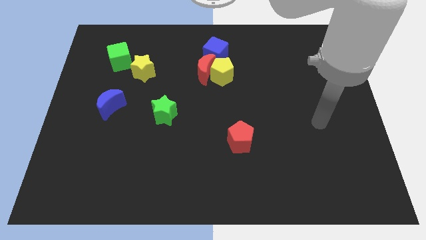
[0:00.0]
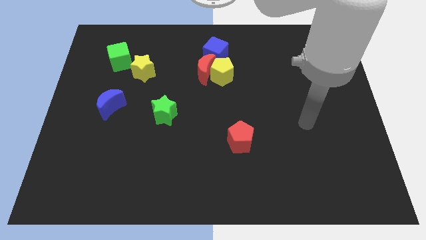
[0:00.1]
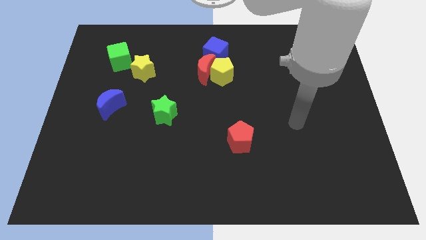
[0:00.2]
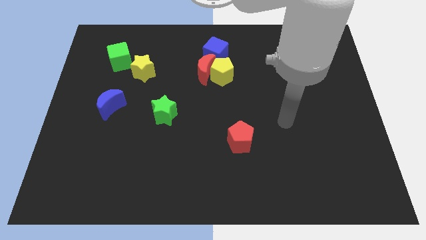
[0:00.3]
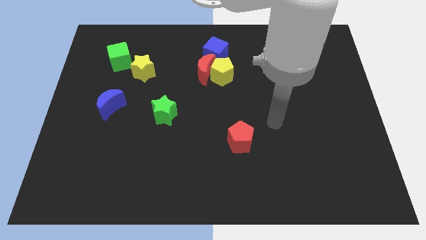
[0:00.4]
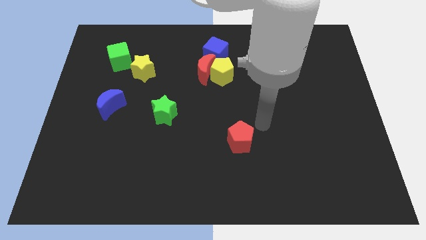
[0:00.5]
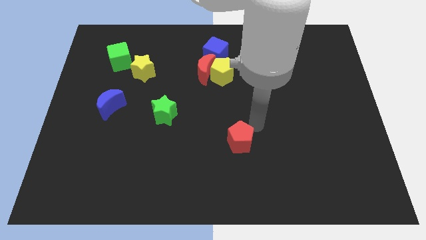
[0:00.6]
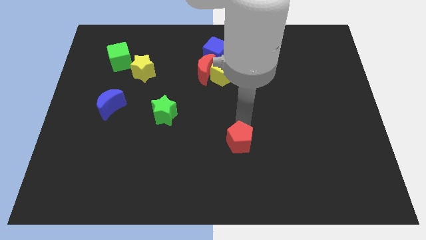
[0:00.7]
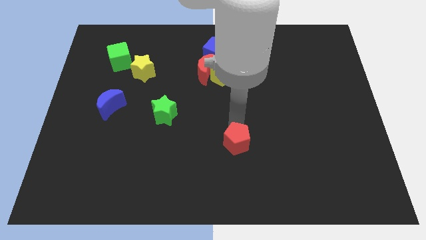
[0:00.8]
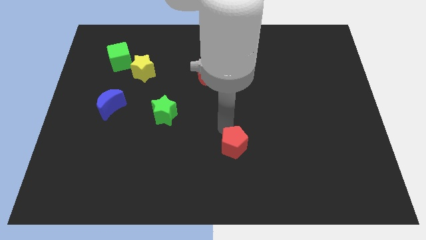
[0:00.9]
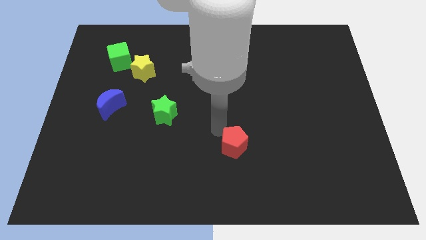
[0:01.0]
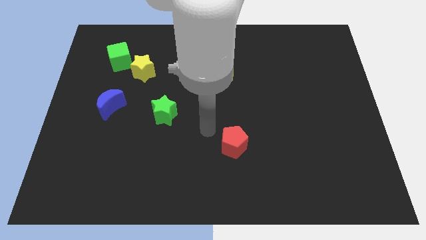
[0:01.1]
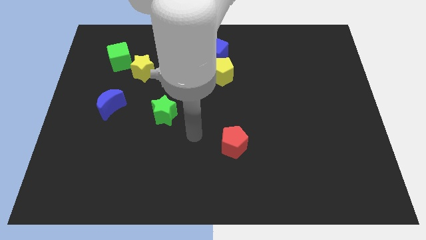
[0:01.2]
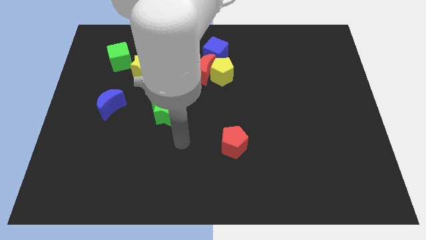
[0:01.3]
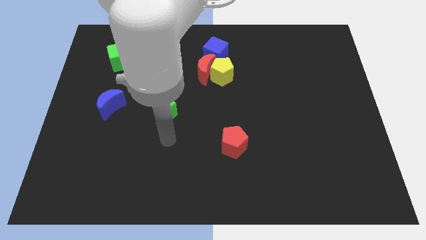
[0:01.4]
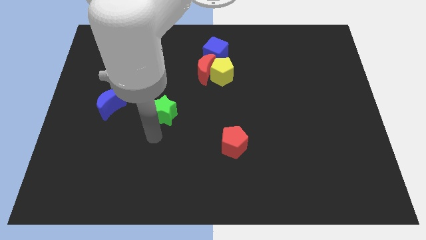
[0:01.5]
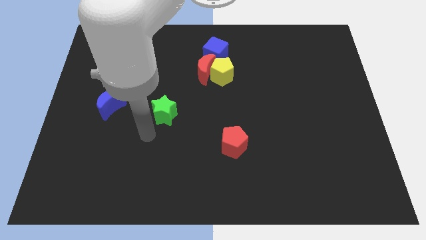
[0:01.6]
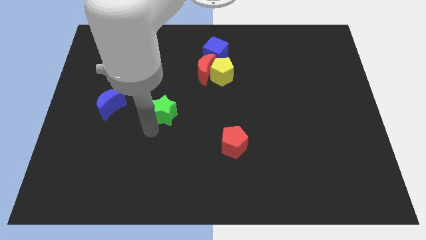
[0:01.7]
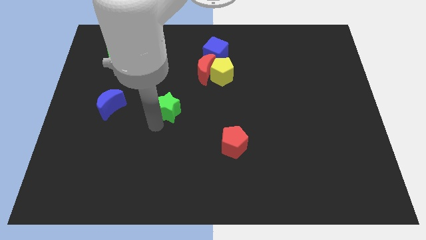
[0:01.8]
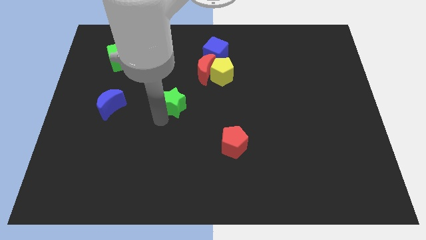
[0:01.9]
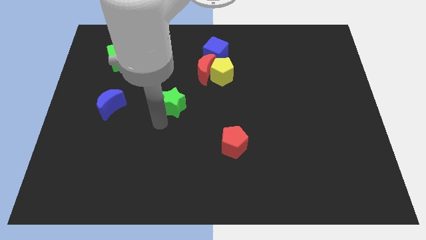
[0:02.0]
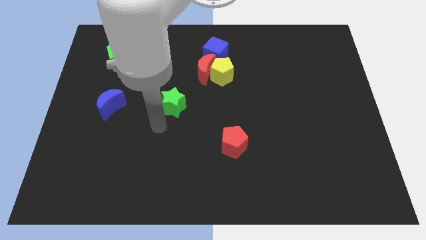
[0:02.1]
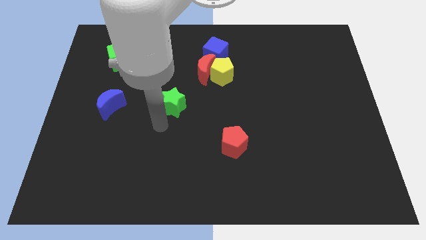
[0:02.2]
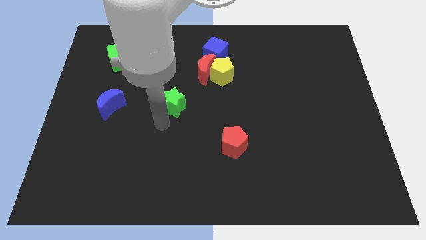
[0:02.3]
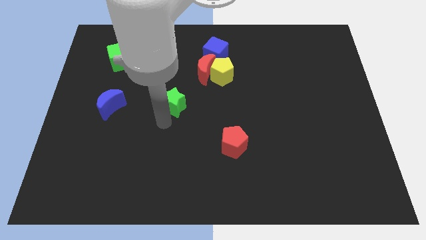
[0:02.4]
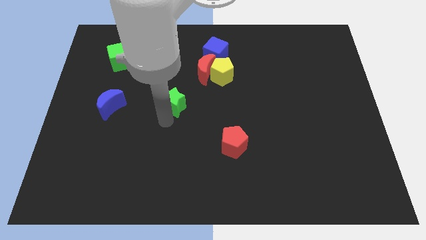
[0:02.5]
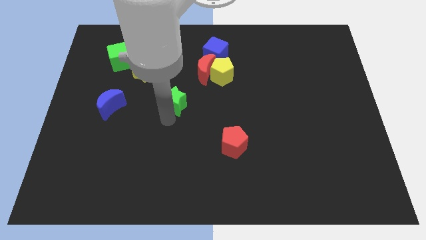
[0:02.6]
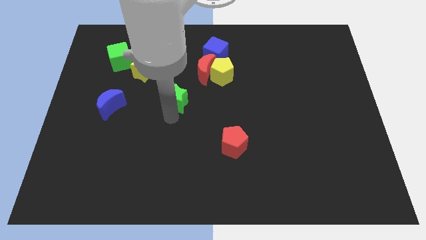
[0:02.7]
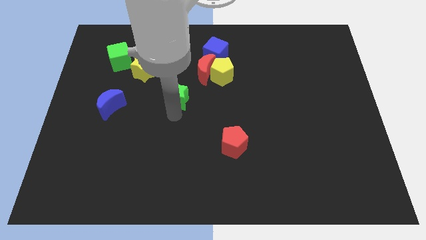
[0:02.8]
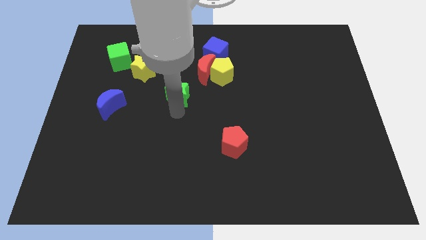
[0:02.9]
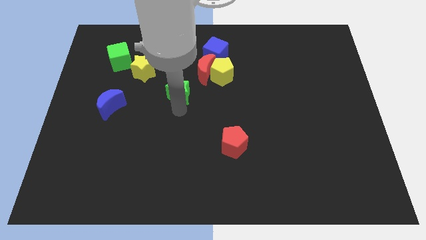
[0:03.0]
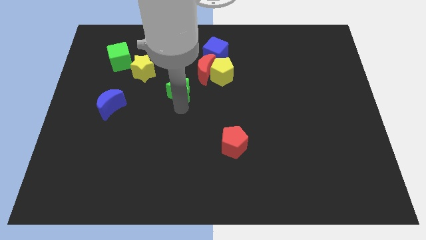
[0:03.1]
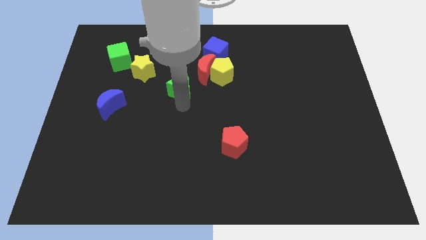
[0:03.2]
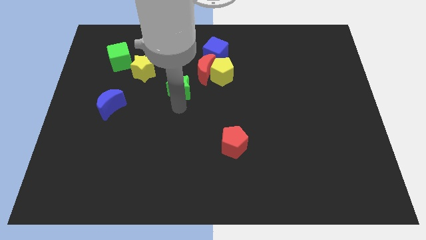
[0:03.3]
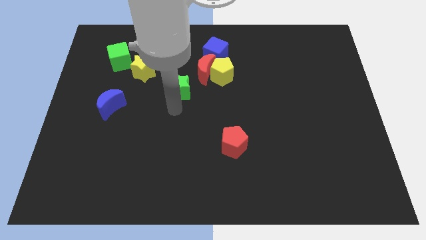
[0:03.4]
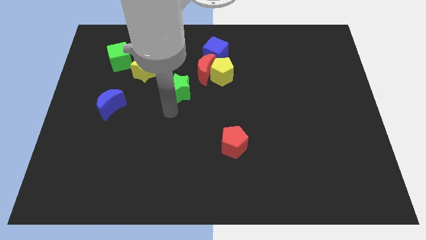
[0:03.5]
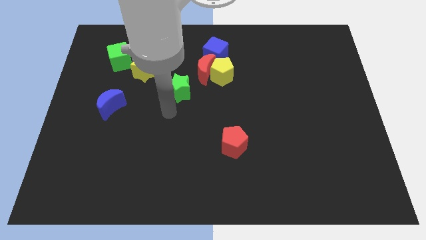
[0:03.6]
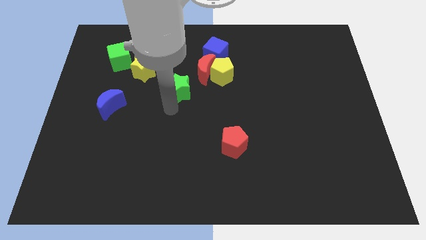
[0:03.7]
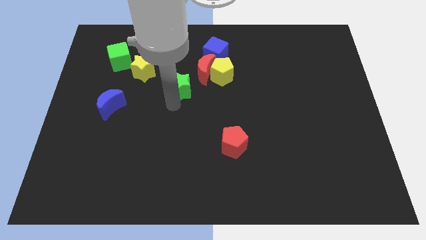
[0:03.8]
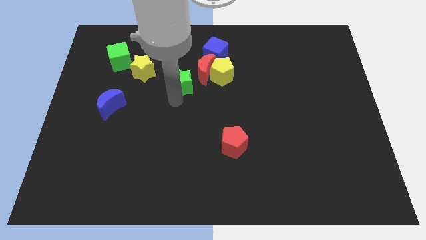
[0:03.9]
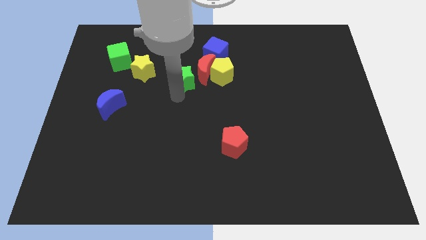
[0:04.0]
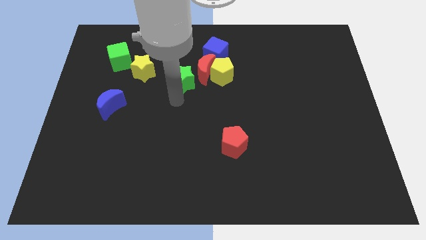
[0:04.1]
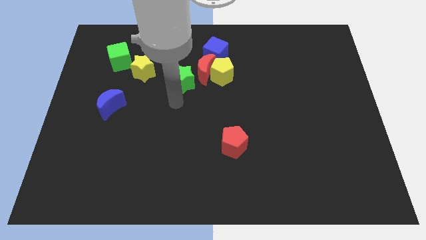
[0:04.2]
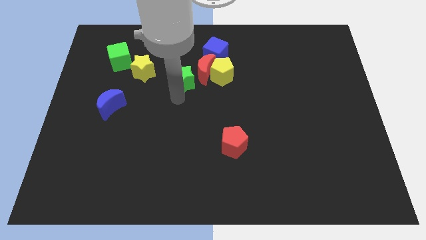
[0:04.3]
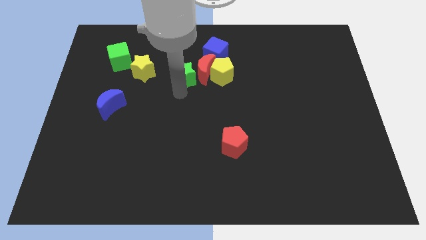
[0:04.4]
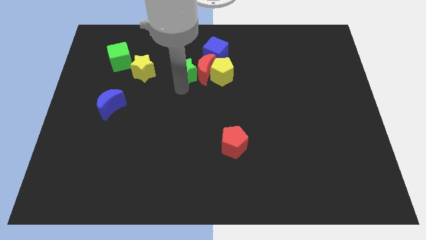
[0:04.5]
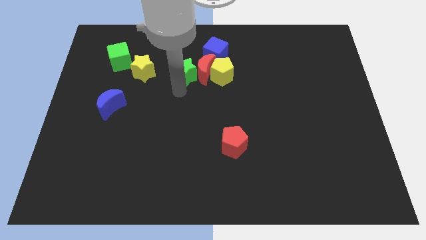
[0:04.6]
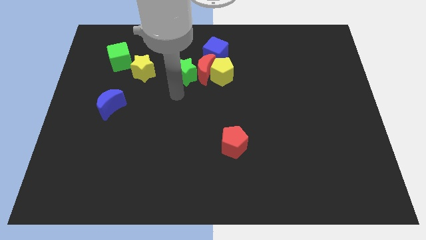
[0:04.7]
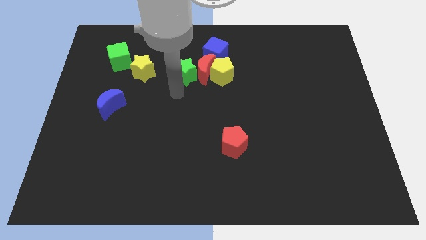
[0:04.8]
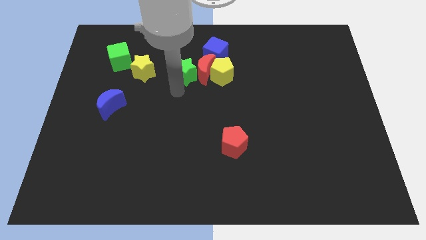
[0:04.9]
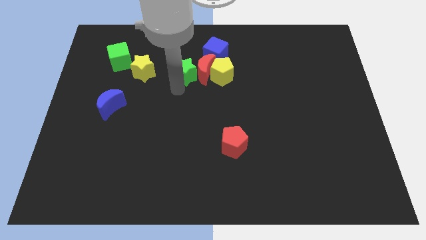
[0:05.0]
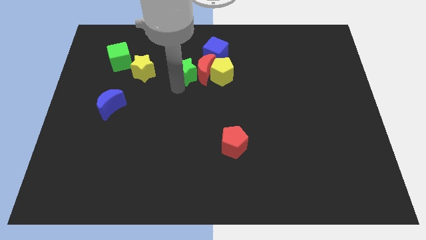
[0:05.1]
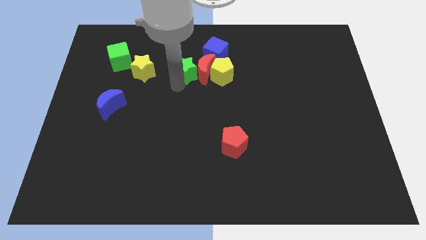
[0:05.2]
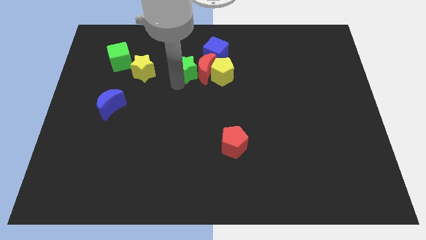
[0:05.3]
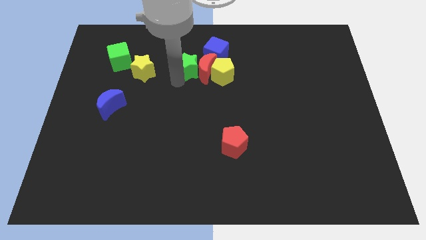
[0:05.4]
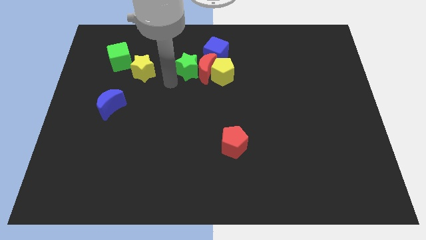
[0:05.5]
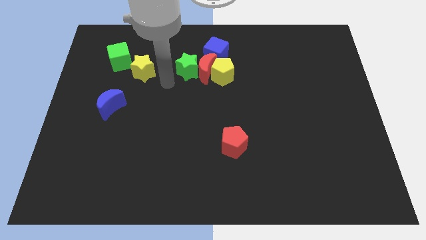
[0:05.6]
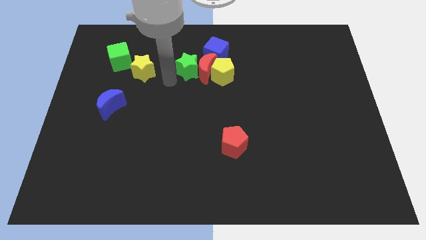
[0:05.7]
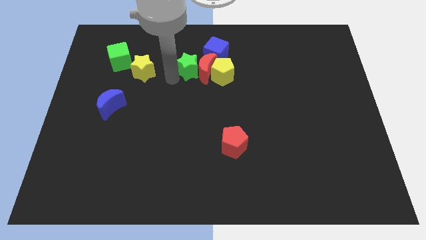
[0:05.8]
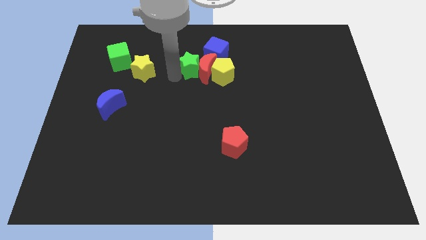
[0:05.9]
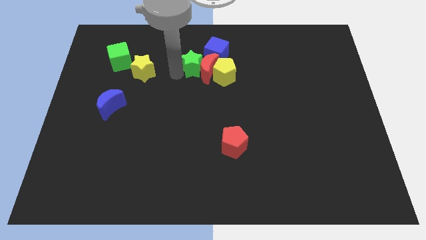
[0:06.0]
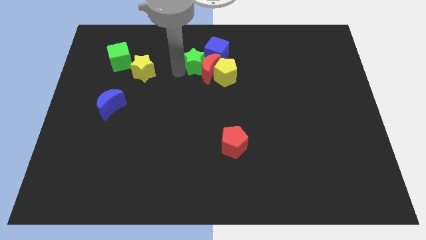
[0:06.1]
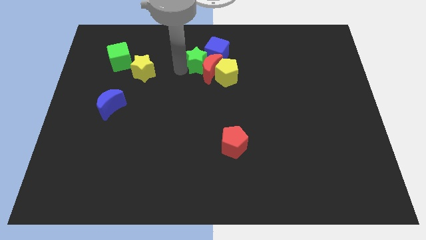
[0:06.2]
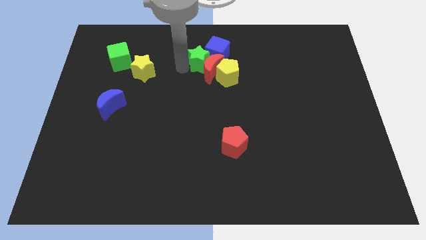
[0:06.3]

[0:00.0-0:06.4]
put the green star to the blue cube
